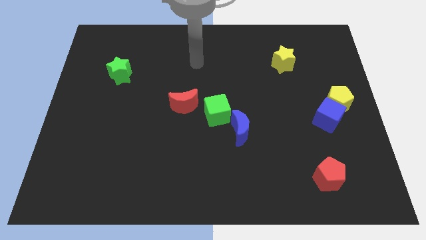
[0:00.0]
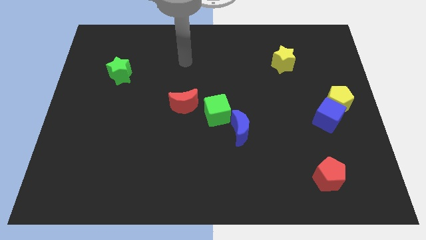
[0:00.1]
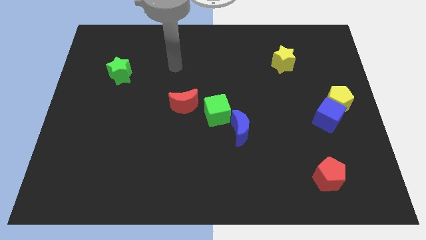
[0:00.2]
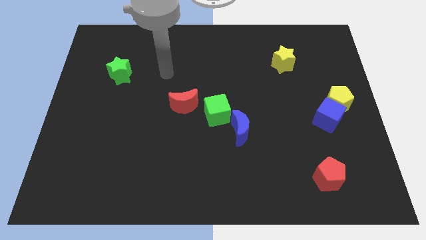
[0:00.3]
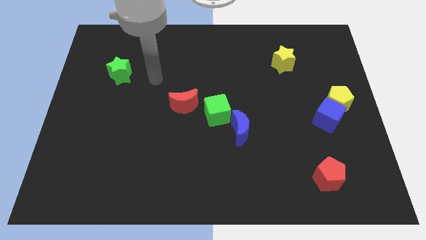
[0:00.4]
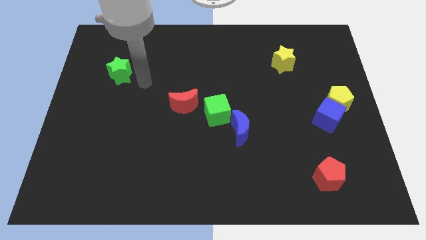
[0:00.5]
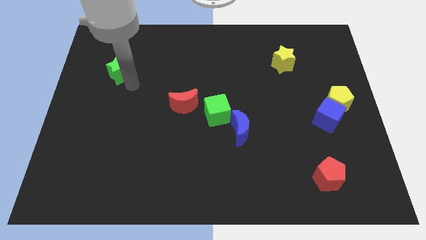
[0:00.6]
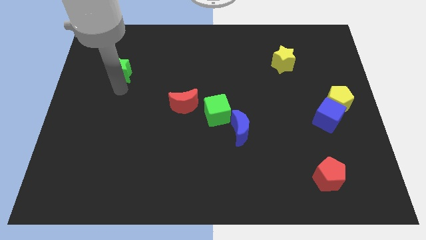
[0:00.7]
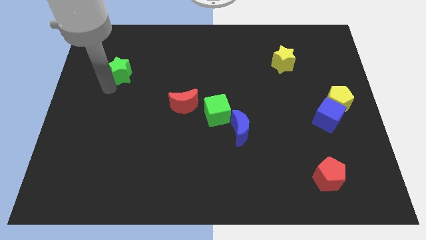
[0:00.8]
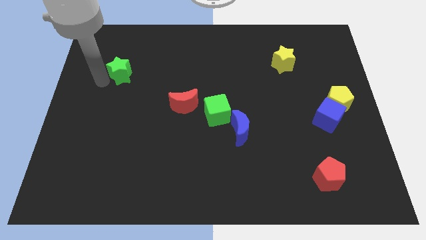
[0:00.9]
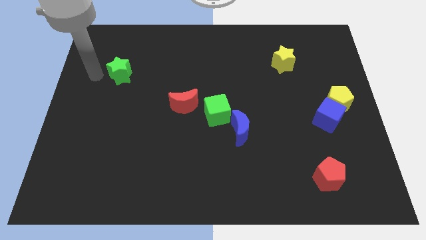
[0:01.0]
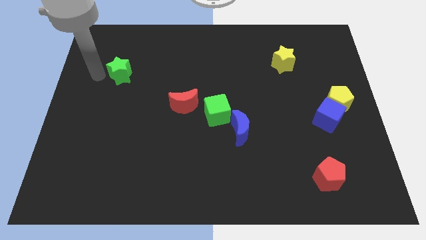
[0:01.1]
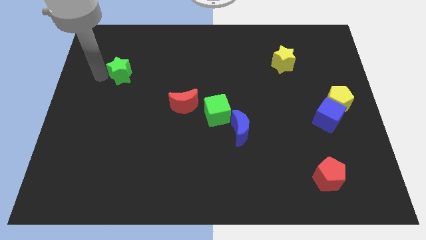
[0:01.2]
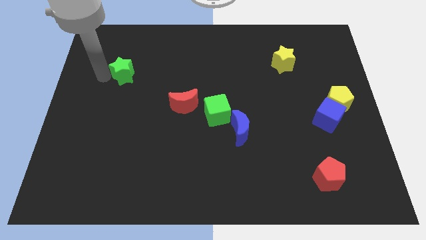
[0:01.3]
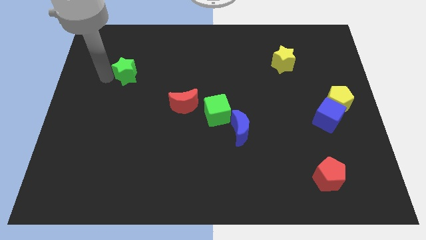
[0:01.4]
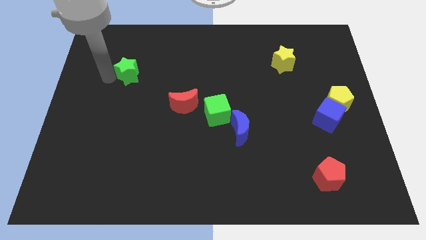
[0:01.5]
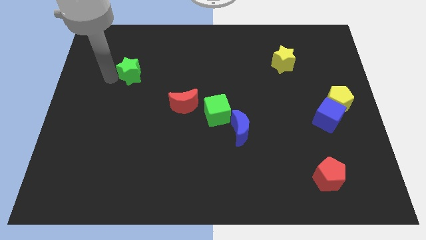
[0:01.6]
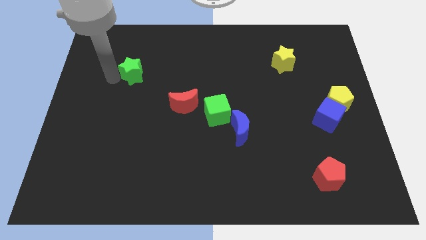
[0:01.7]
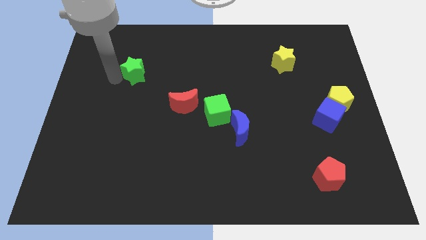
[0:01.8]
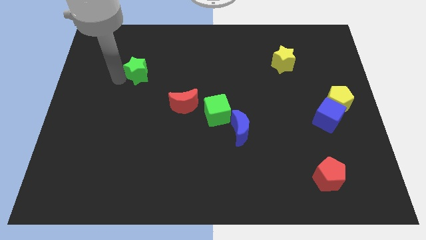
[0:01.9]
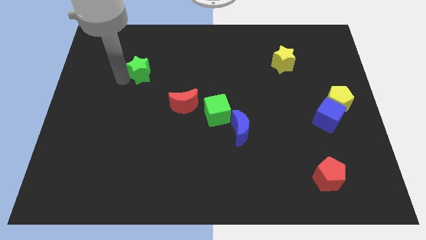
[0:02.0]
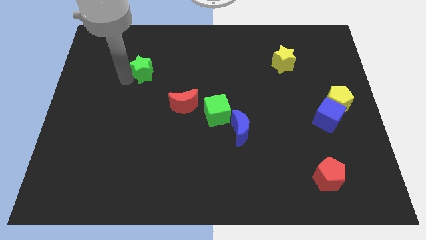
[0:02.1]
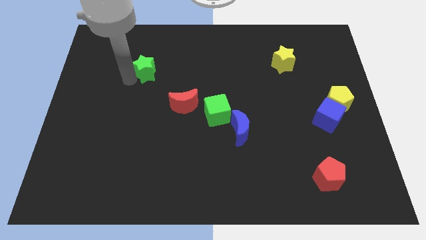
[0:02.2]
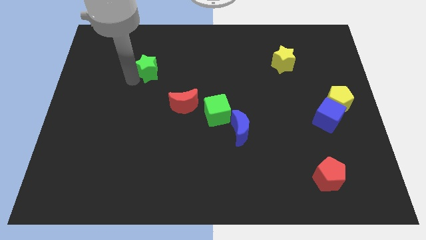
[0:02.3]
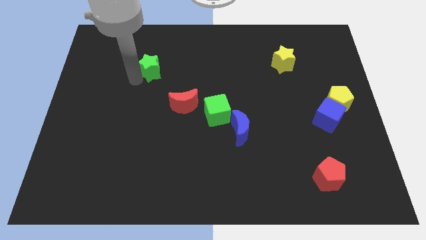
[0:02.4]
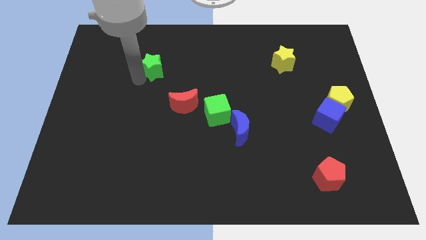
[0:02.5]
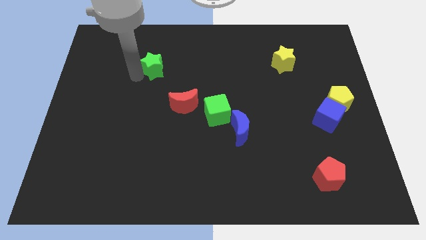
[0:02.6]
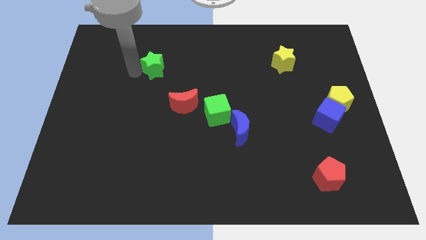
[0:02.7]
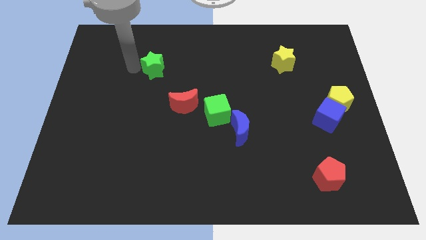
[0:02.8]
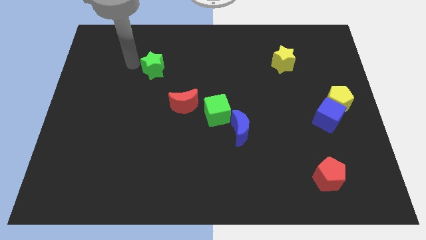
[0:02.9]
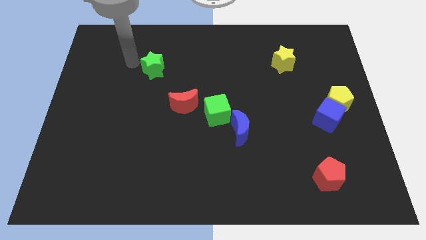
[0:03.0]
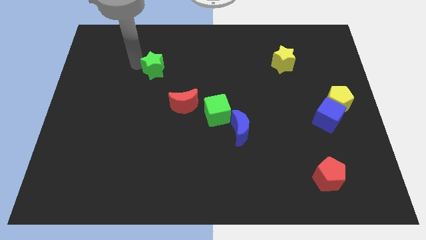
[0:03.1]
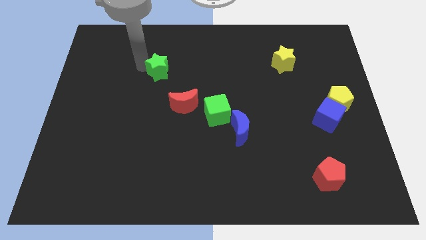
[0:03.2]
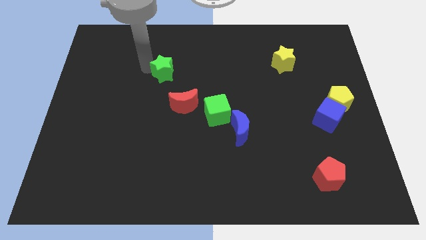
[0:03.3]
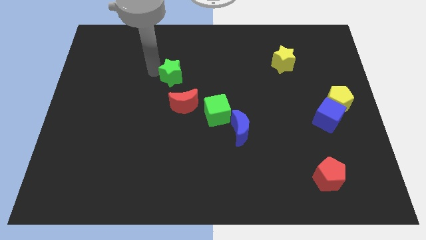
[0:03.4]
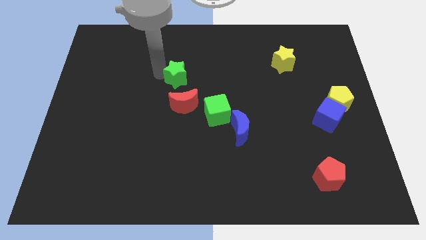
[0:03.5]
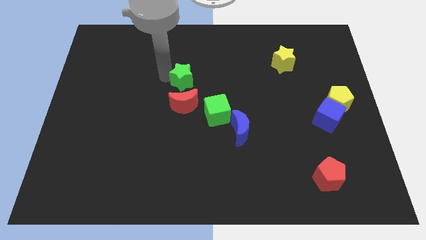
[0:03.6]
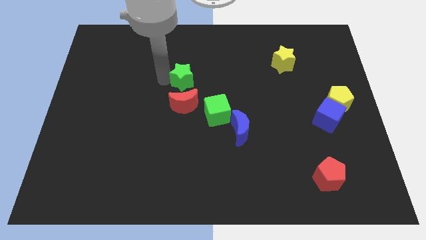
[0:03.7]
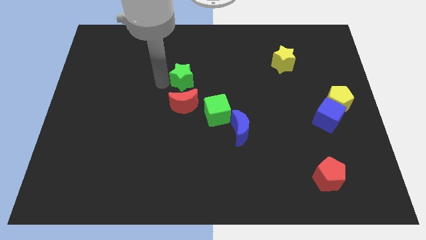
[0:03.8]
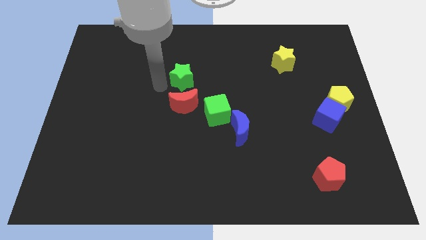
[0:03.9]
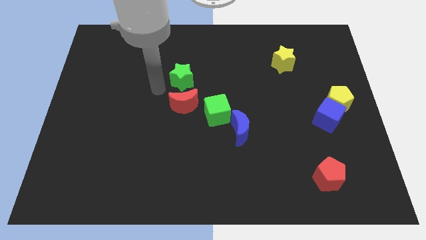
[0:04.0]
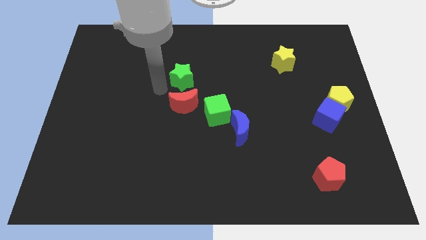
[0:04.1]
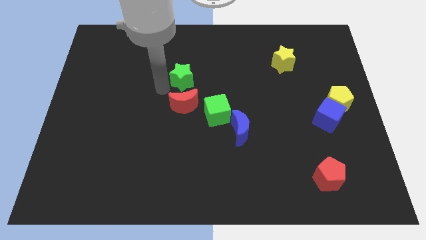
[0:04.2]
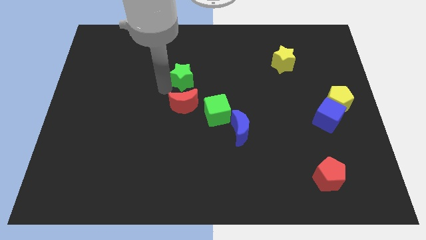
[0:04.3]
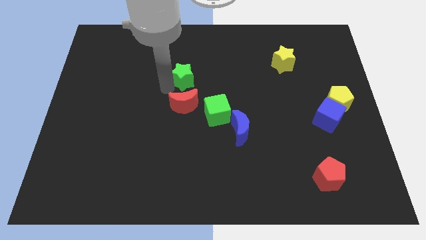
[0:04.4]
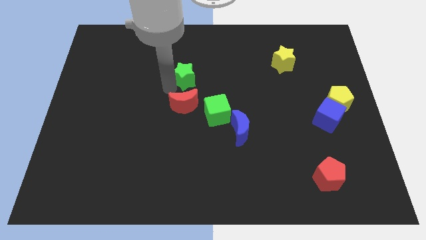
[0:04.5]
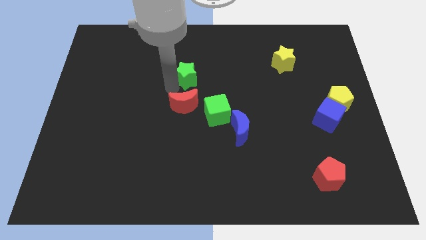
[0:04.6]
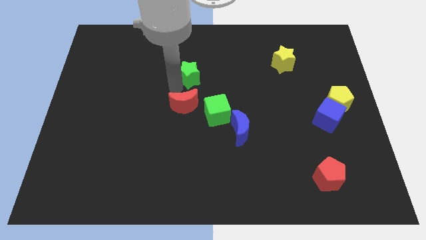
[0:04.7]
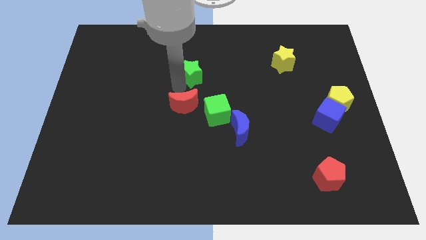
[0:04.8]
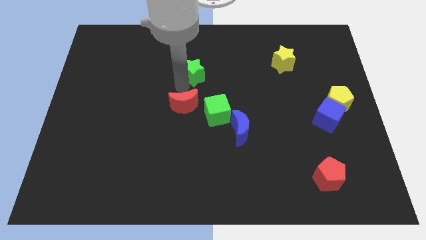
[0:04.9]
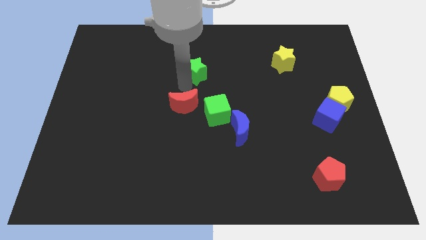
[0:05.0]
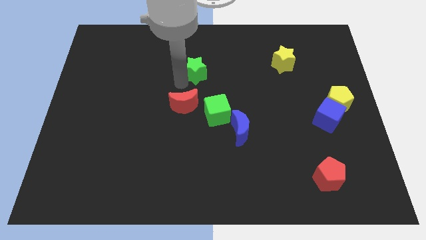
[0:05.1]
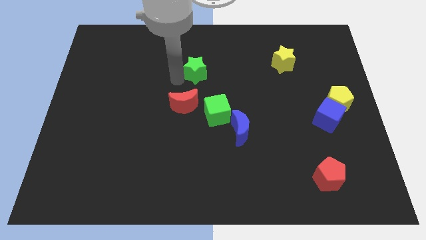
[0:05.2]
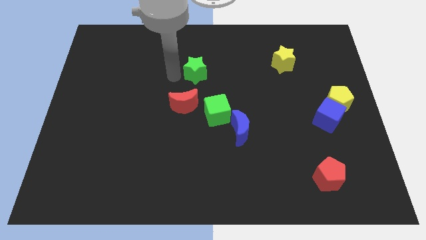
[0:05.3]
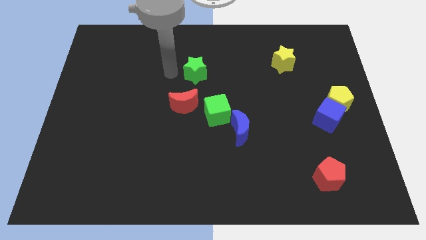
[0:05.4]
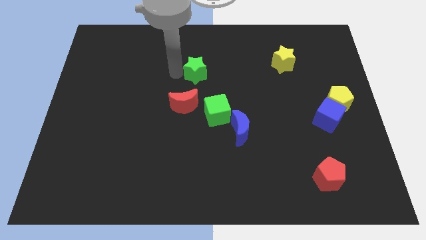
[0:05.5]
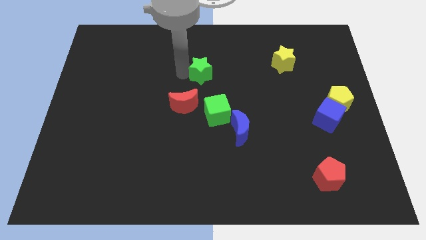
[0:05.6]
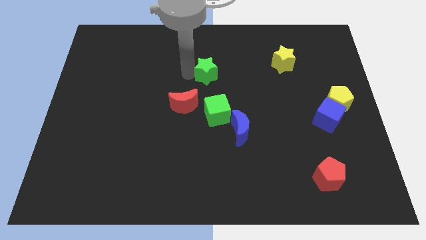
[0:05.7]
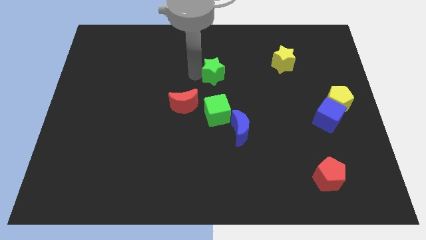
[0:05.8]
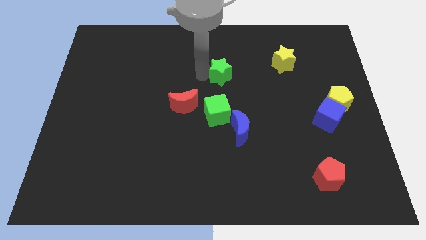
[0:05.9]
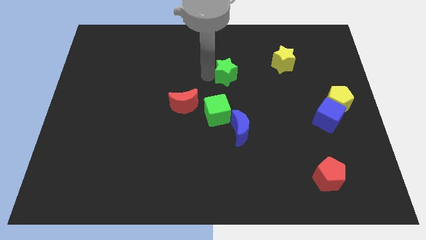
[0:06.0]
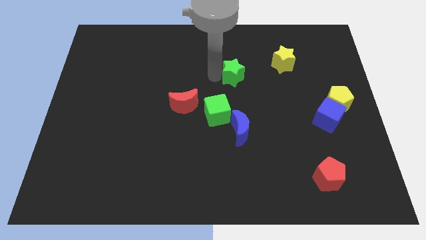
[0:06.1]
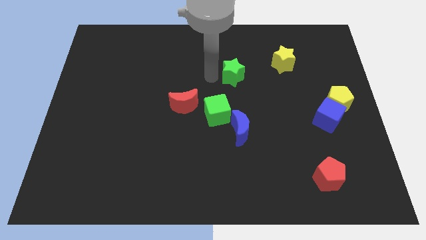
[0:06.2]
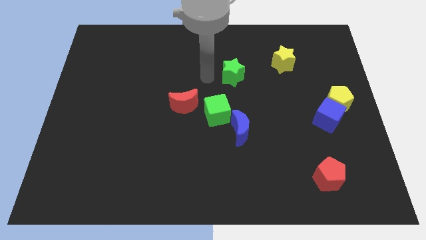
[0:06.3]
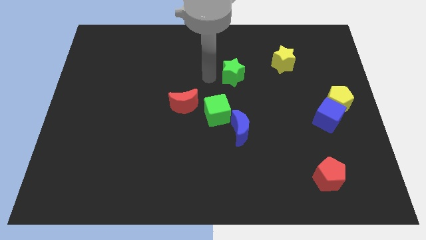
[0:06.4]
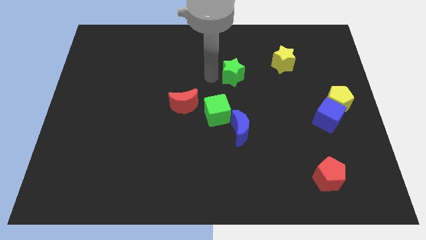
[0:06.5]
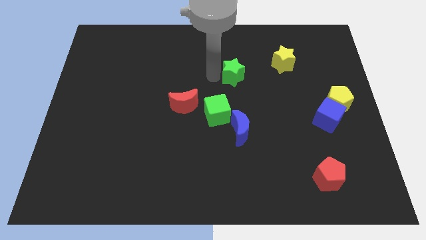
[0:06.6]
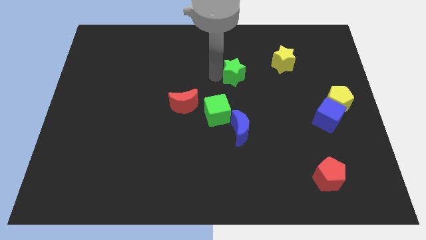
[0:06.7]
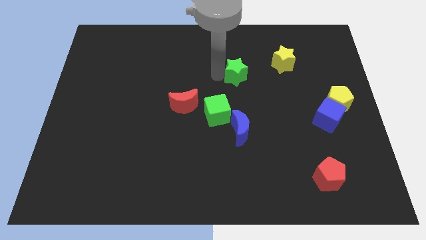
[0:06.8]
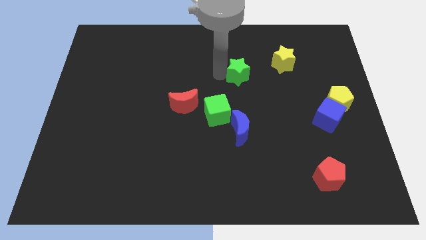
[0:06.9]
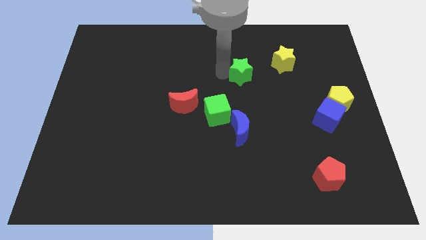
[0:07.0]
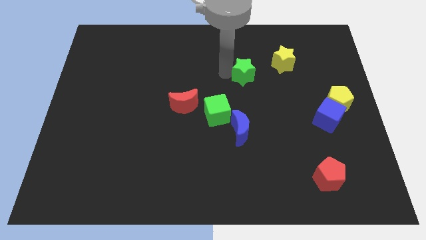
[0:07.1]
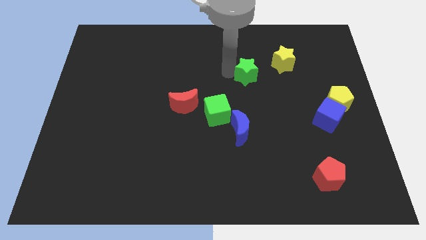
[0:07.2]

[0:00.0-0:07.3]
push the green star to the bottom left side of the yellow star
